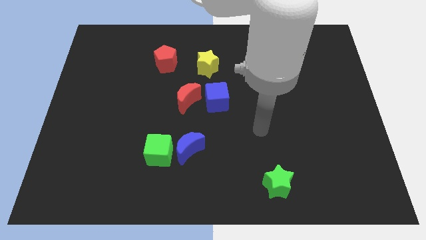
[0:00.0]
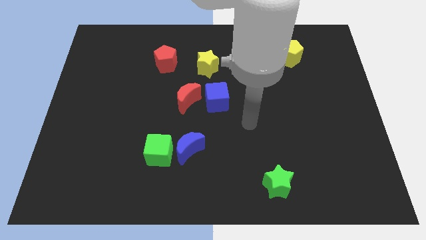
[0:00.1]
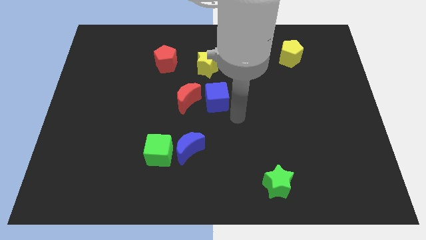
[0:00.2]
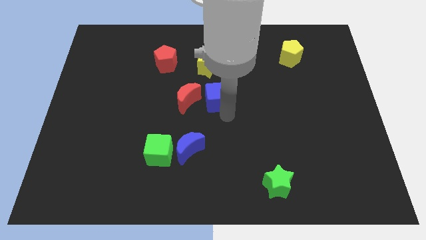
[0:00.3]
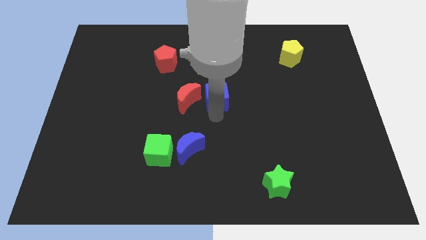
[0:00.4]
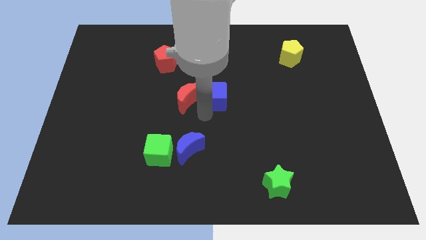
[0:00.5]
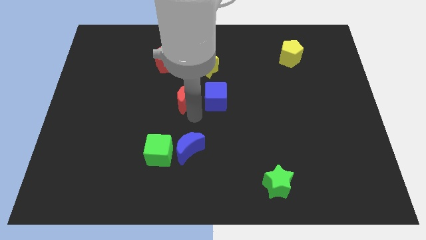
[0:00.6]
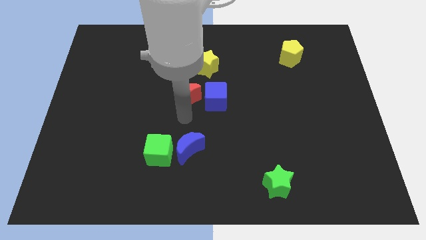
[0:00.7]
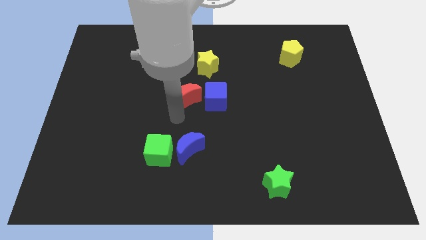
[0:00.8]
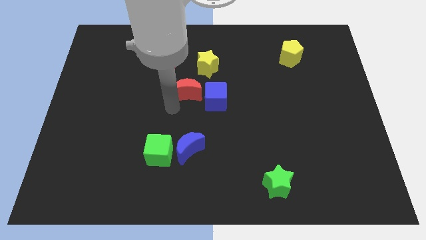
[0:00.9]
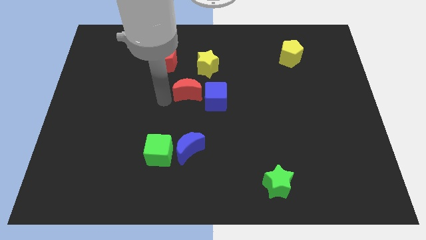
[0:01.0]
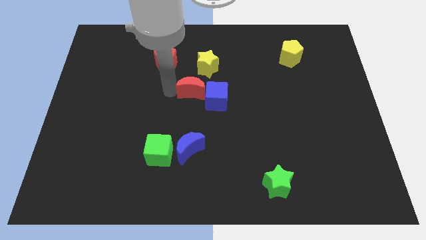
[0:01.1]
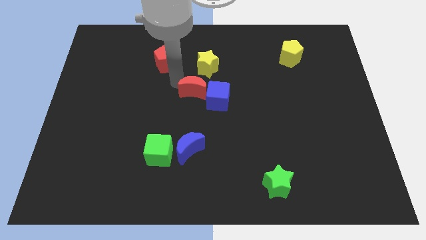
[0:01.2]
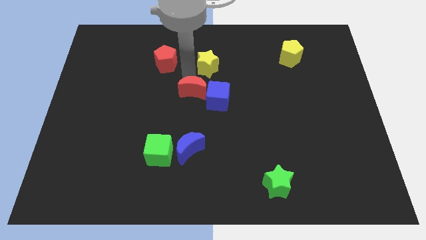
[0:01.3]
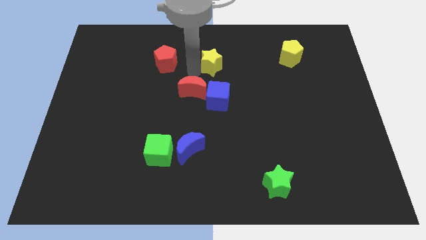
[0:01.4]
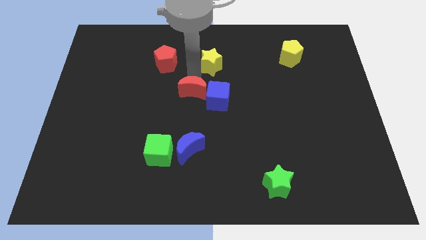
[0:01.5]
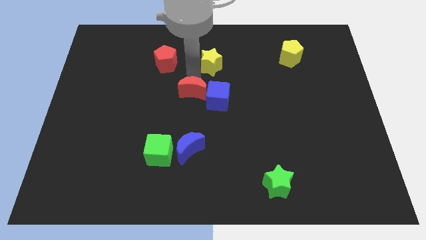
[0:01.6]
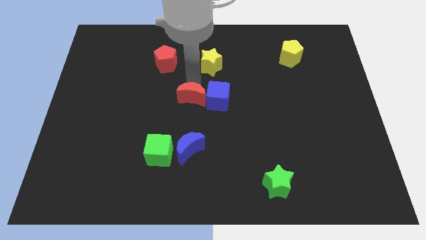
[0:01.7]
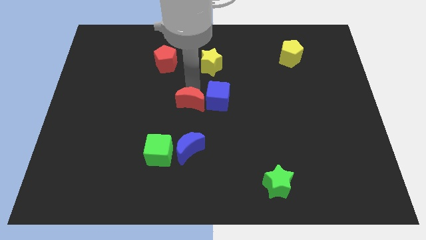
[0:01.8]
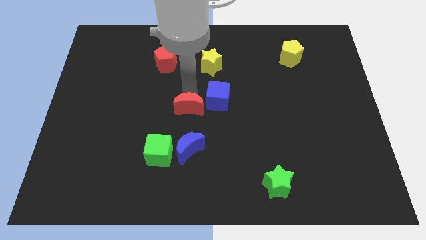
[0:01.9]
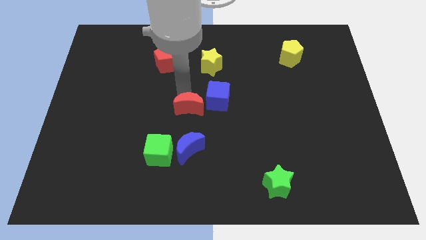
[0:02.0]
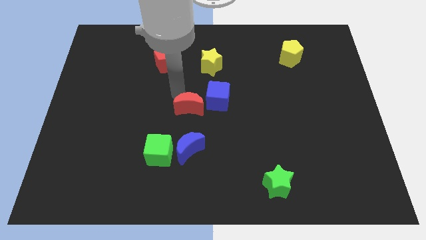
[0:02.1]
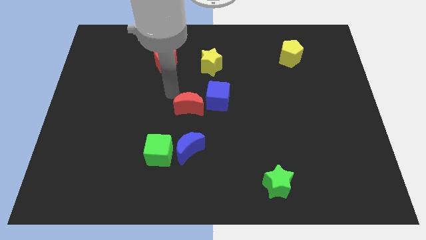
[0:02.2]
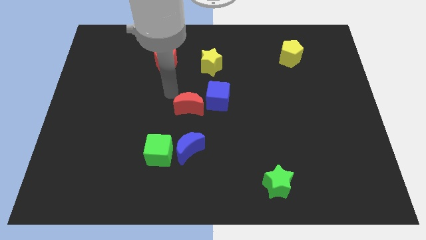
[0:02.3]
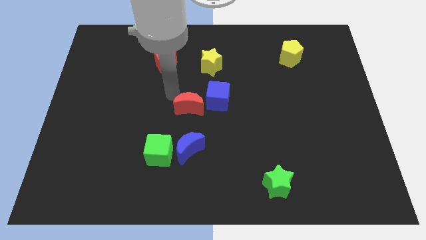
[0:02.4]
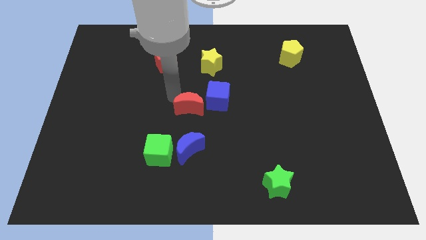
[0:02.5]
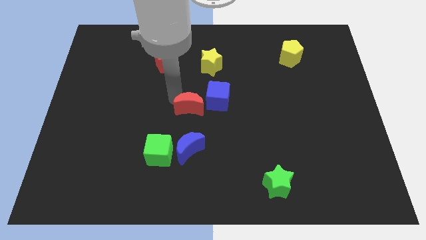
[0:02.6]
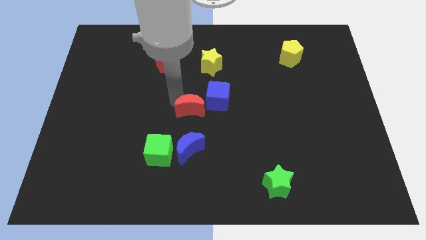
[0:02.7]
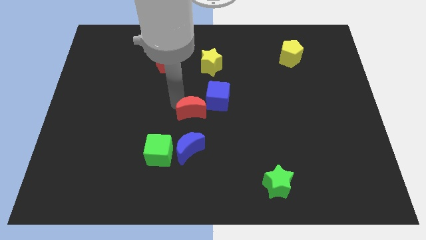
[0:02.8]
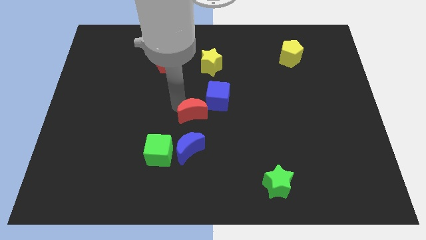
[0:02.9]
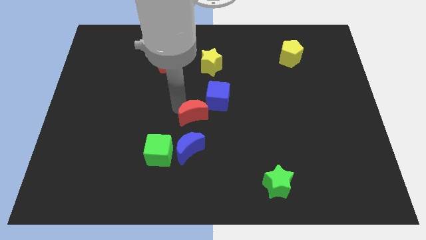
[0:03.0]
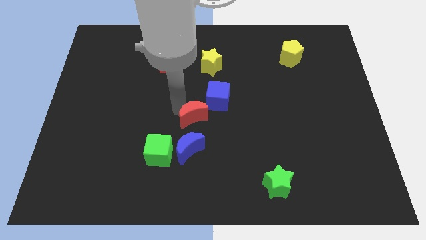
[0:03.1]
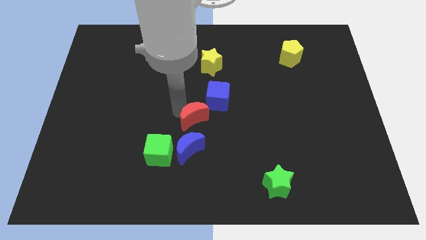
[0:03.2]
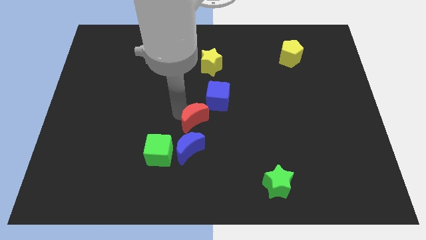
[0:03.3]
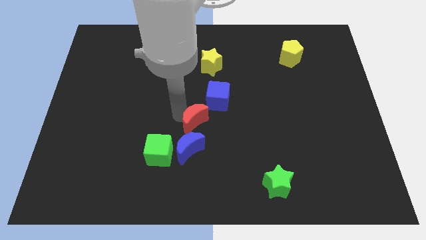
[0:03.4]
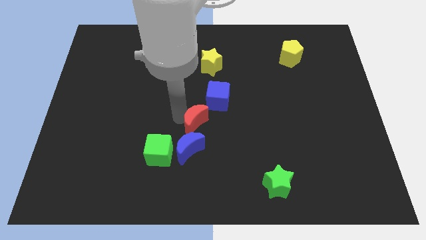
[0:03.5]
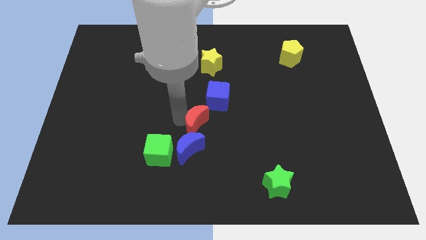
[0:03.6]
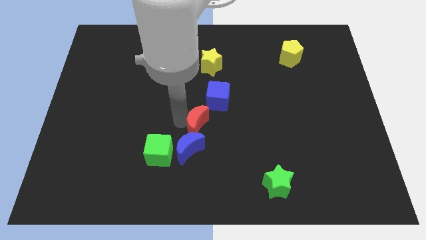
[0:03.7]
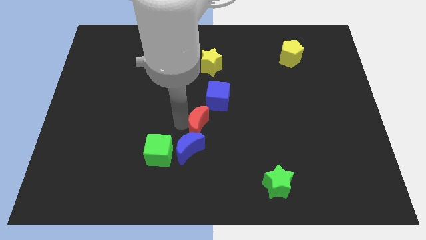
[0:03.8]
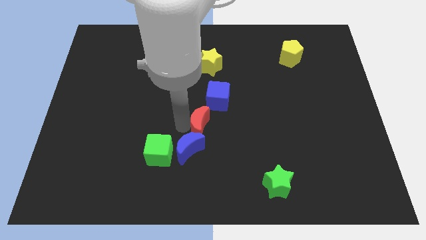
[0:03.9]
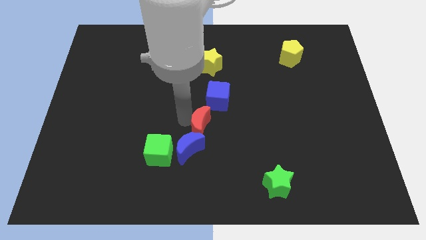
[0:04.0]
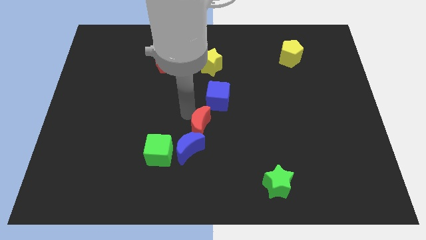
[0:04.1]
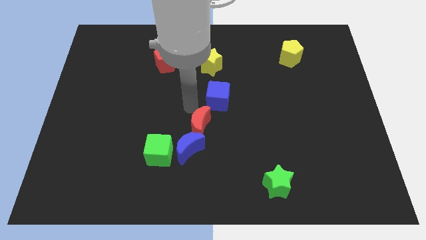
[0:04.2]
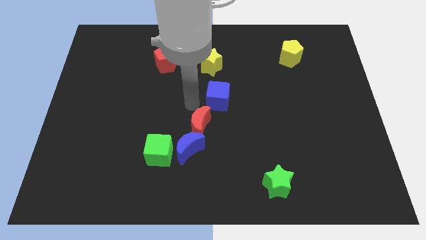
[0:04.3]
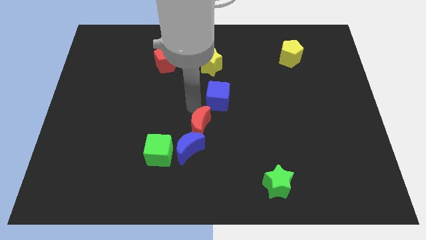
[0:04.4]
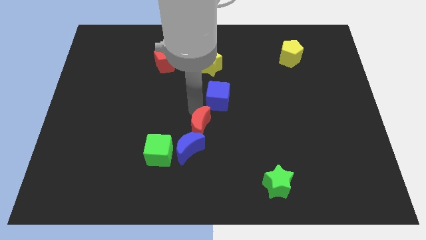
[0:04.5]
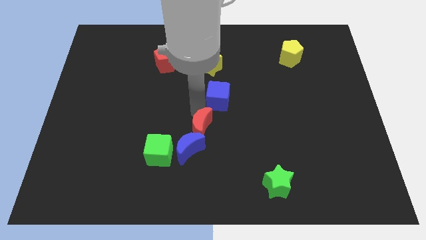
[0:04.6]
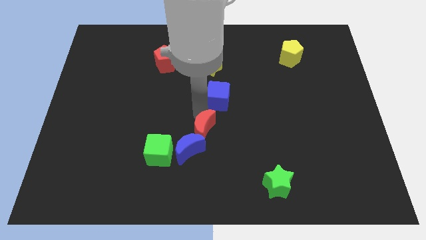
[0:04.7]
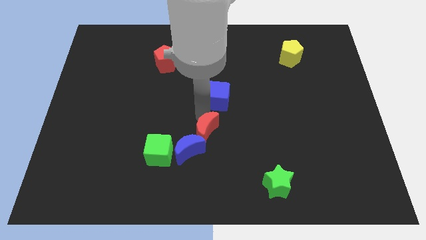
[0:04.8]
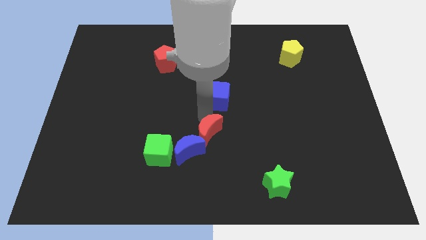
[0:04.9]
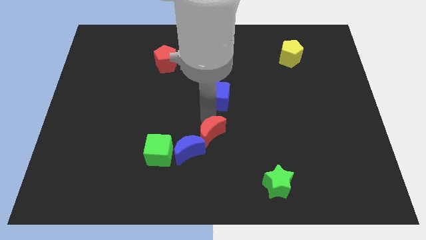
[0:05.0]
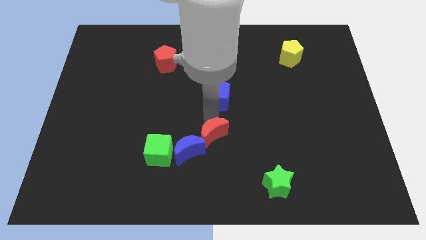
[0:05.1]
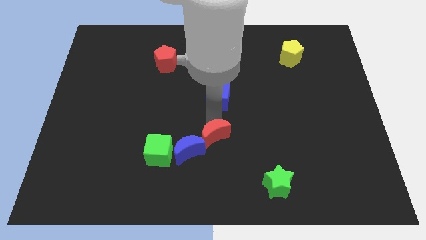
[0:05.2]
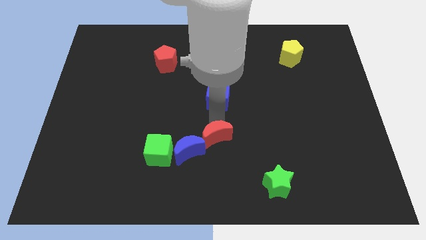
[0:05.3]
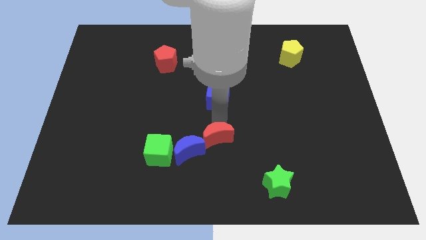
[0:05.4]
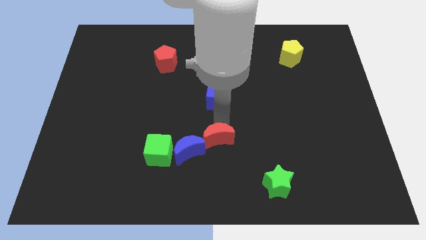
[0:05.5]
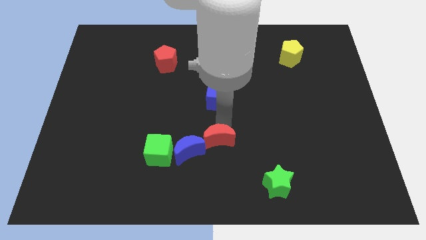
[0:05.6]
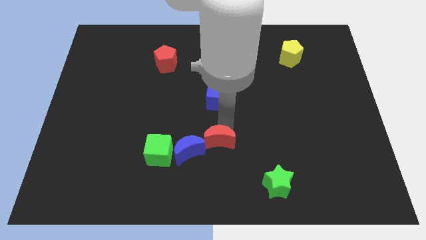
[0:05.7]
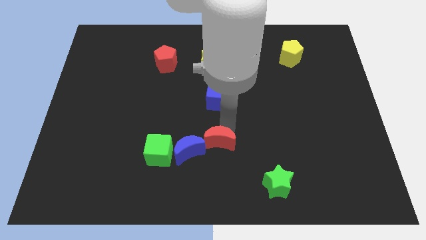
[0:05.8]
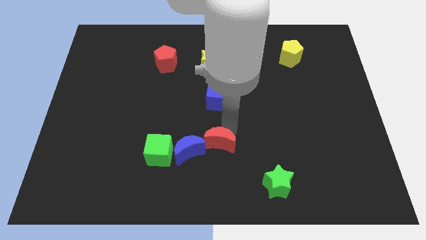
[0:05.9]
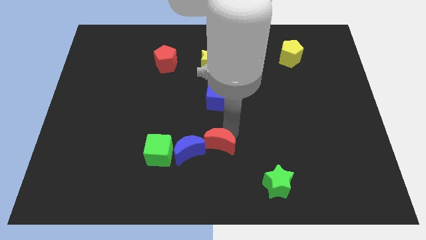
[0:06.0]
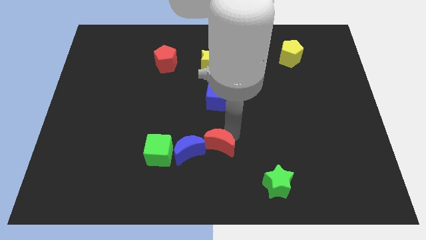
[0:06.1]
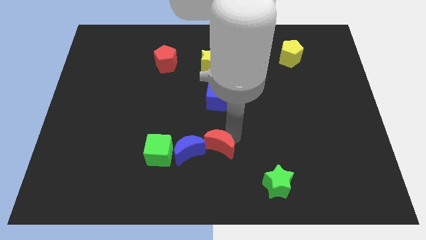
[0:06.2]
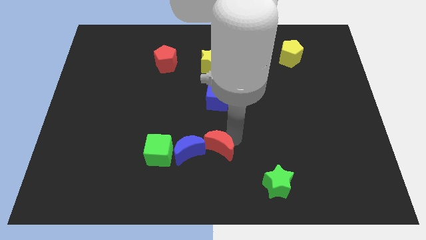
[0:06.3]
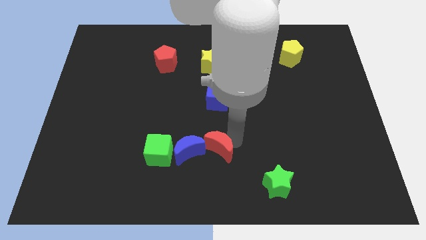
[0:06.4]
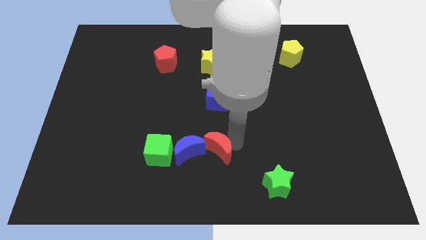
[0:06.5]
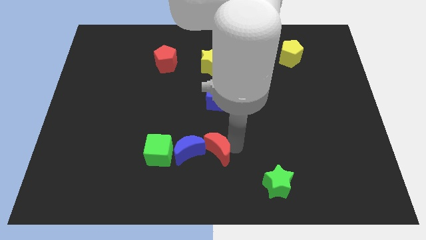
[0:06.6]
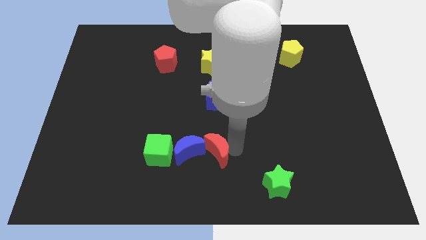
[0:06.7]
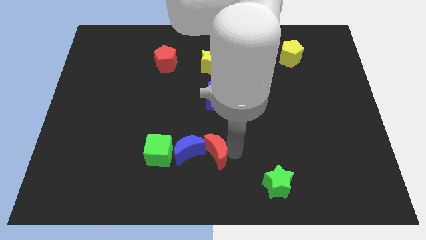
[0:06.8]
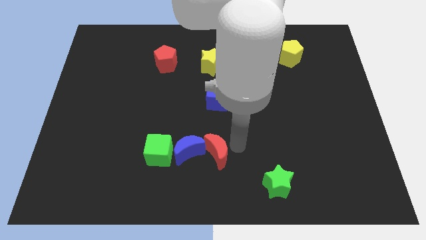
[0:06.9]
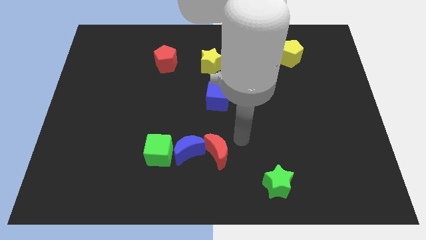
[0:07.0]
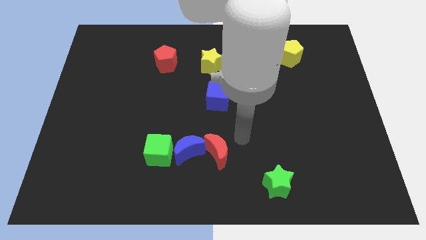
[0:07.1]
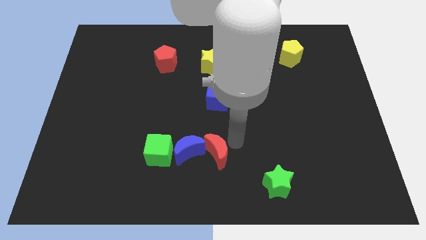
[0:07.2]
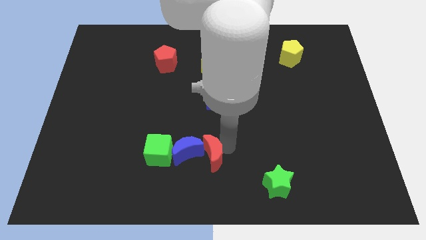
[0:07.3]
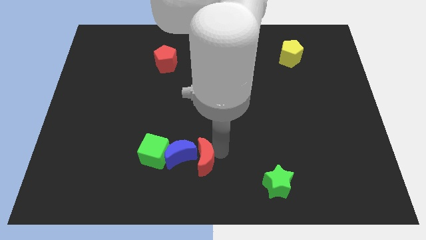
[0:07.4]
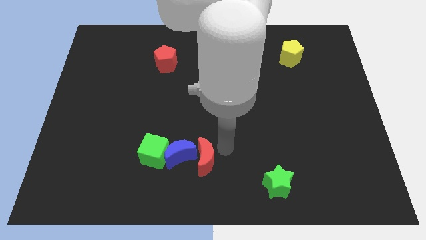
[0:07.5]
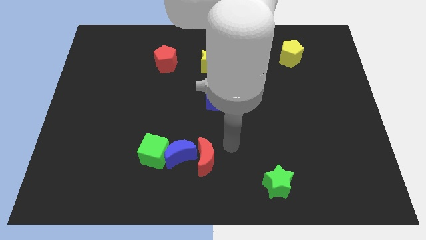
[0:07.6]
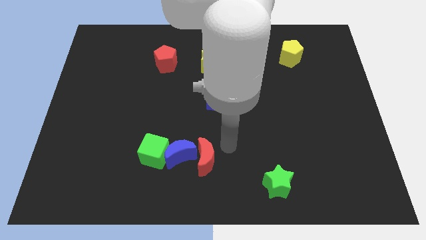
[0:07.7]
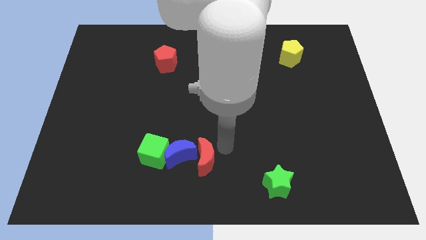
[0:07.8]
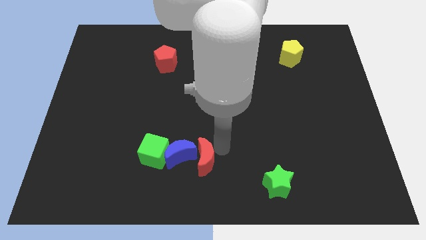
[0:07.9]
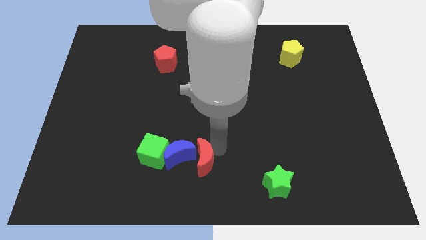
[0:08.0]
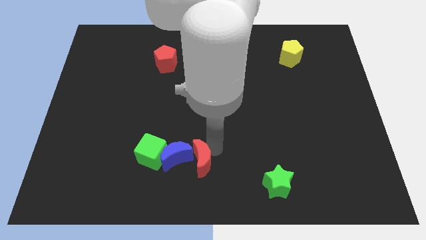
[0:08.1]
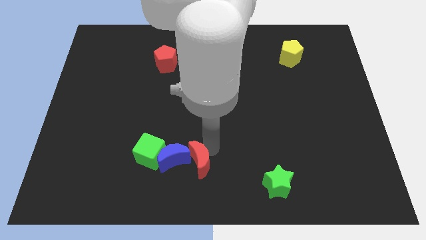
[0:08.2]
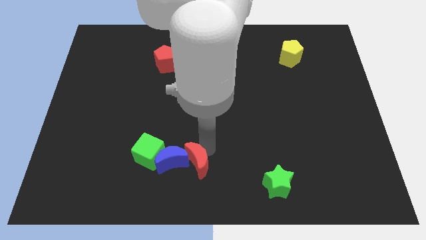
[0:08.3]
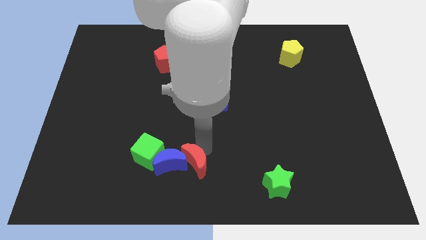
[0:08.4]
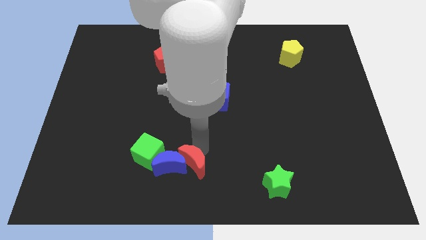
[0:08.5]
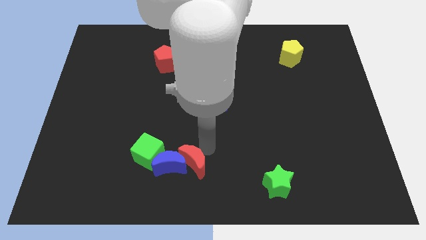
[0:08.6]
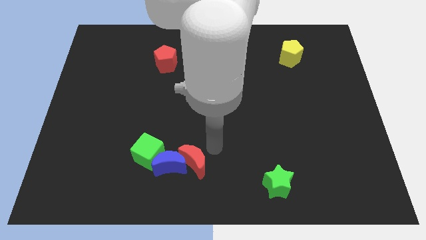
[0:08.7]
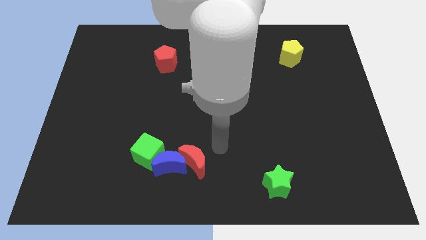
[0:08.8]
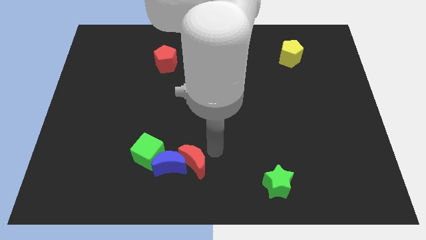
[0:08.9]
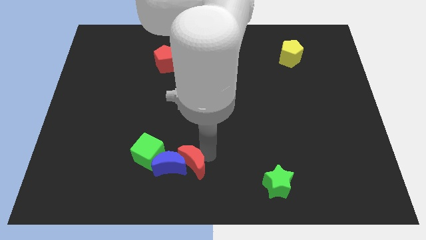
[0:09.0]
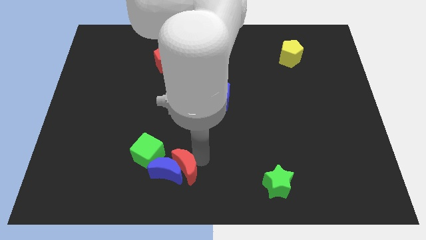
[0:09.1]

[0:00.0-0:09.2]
push the red moon to the bottom right side of the green cube
